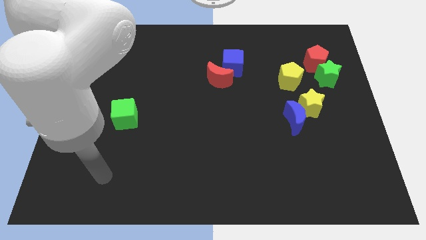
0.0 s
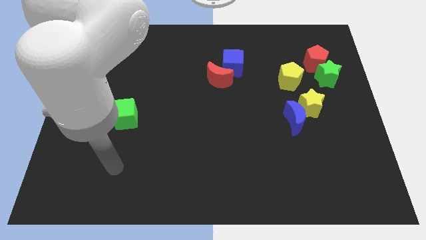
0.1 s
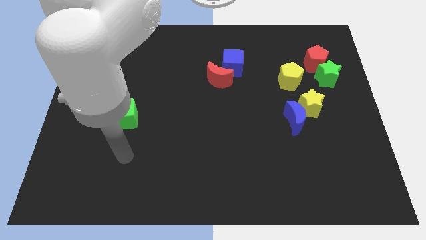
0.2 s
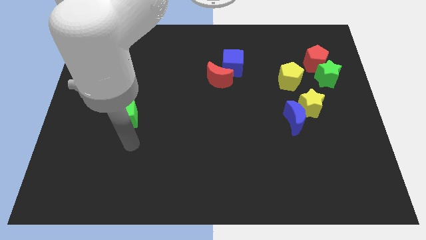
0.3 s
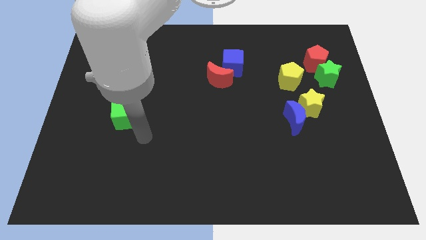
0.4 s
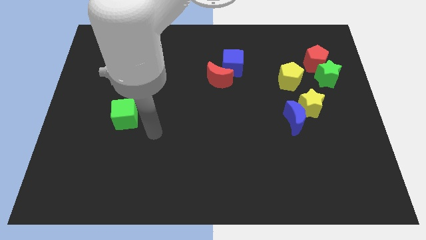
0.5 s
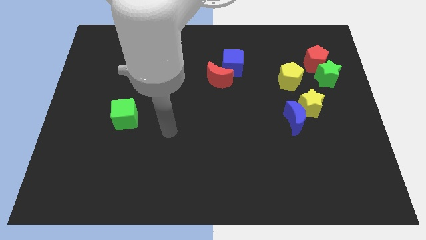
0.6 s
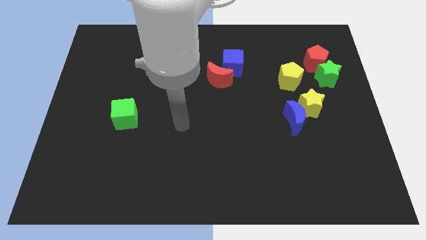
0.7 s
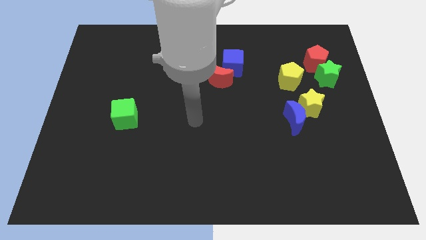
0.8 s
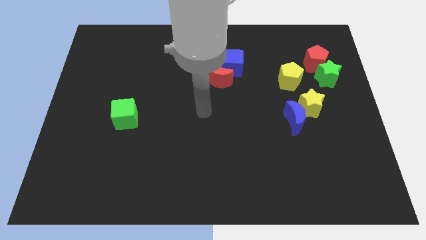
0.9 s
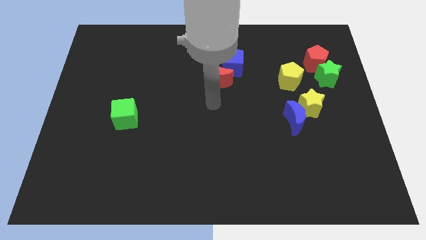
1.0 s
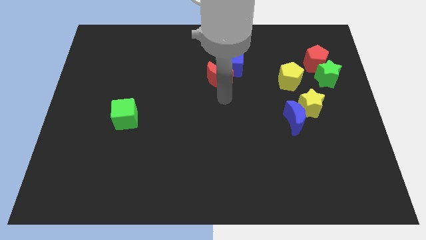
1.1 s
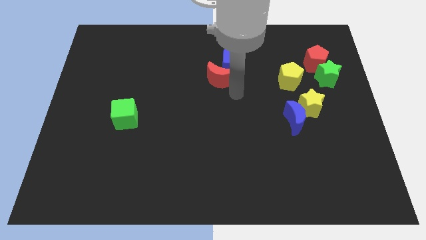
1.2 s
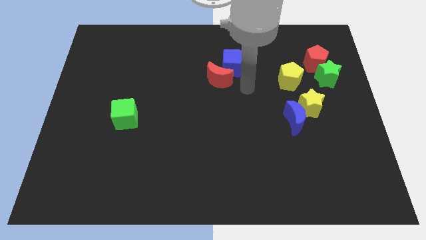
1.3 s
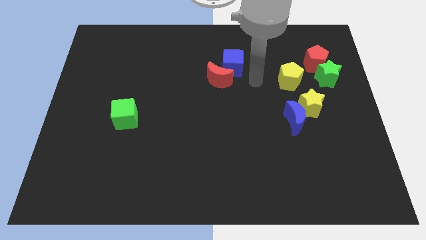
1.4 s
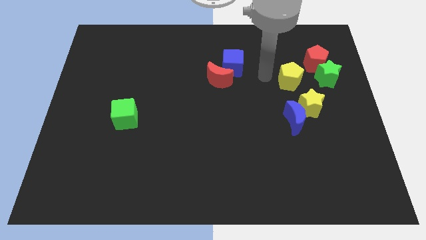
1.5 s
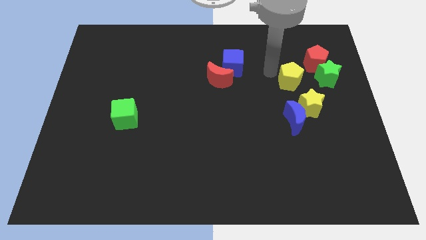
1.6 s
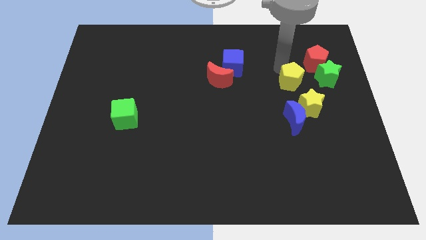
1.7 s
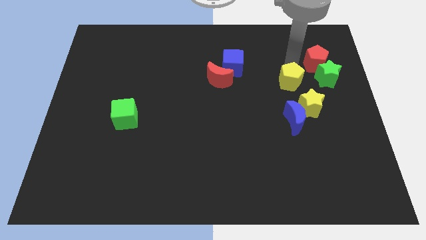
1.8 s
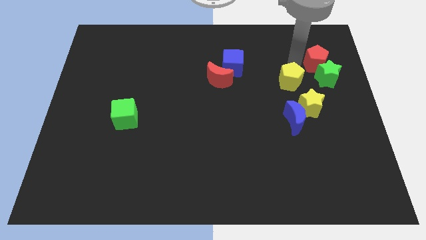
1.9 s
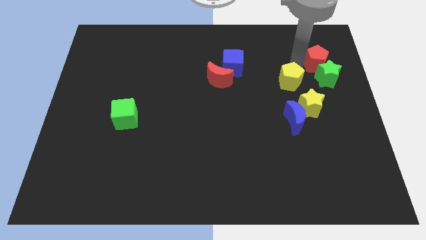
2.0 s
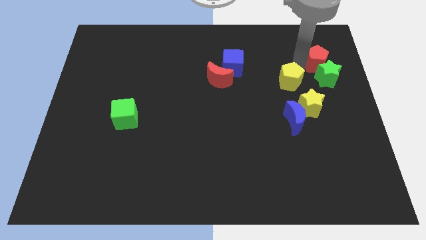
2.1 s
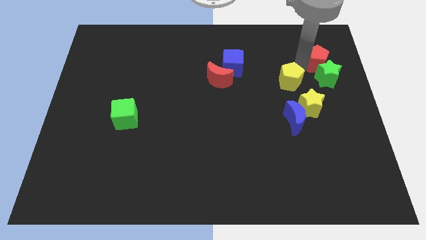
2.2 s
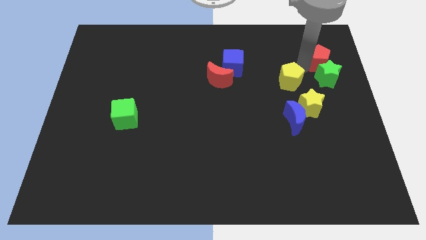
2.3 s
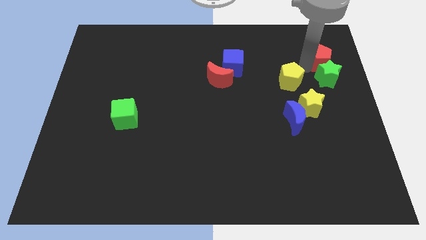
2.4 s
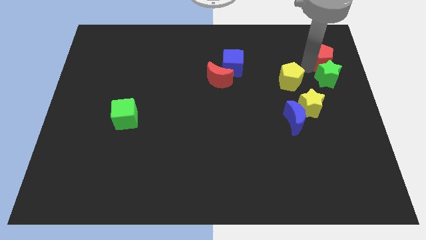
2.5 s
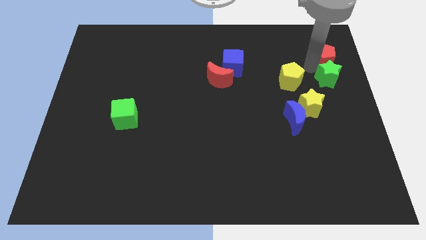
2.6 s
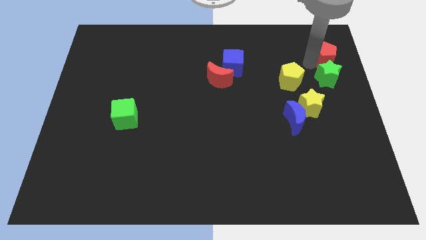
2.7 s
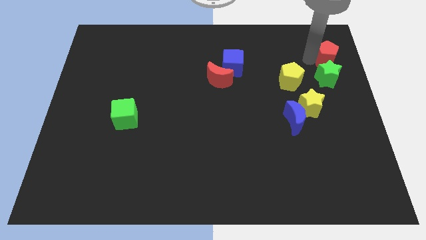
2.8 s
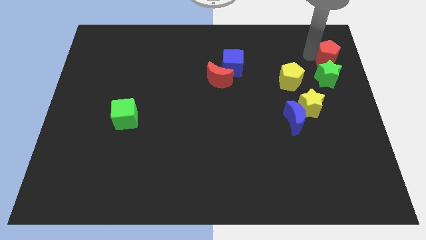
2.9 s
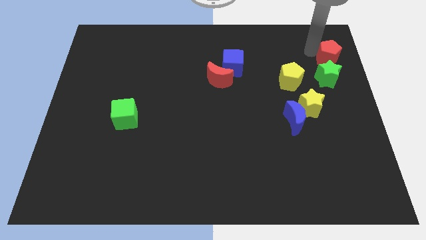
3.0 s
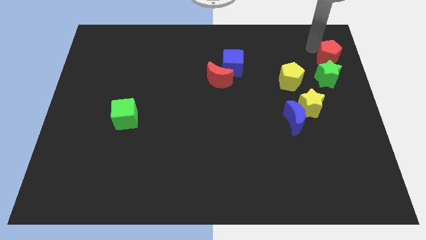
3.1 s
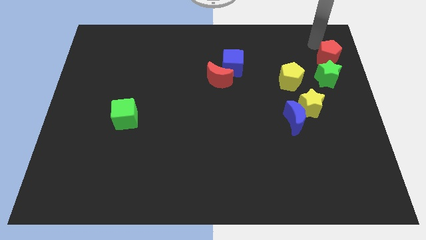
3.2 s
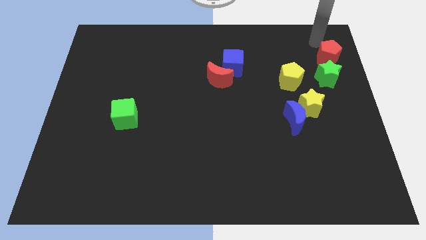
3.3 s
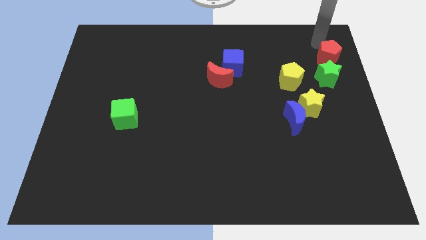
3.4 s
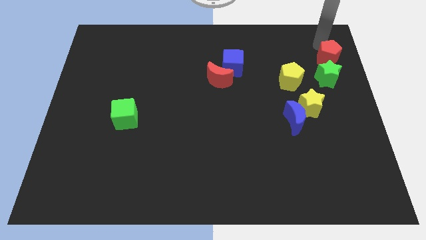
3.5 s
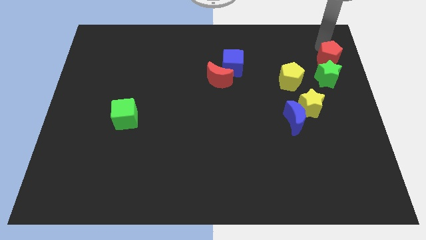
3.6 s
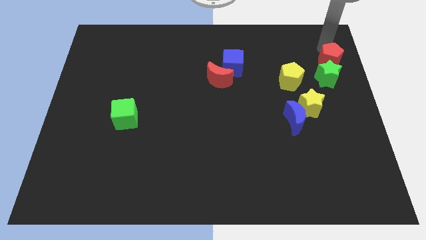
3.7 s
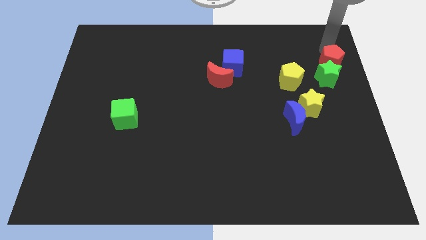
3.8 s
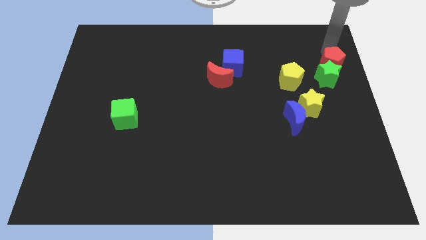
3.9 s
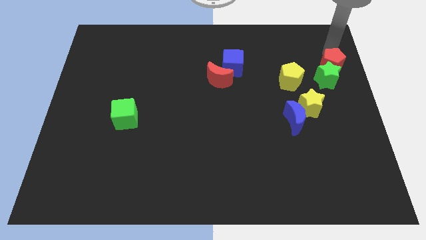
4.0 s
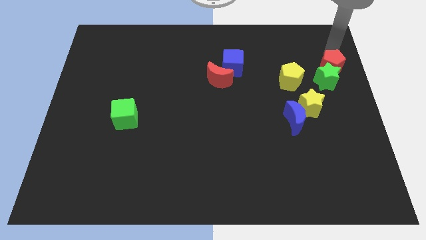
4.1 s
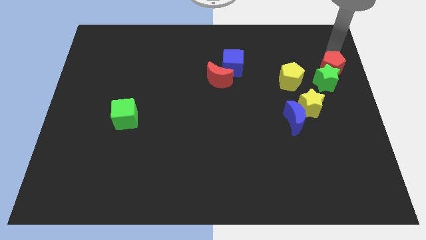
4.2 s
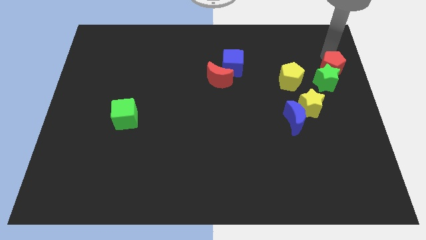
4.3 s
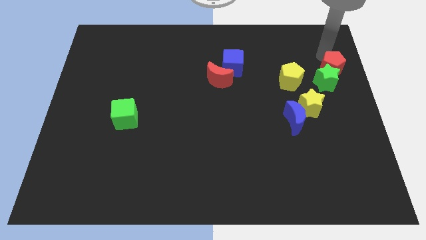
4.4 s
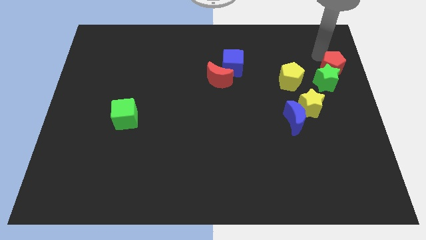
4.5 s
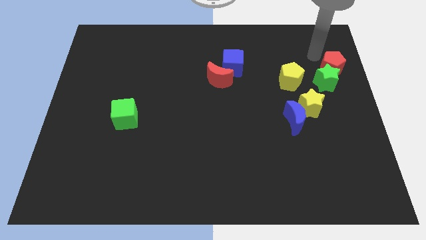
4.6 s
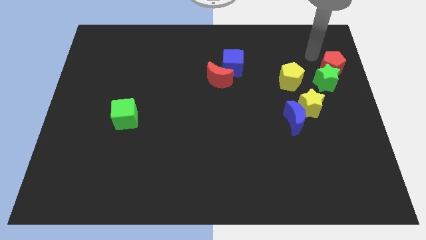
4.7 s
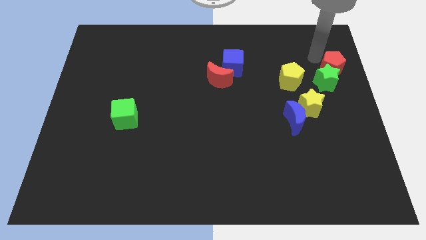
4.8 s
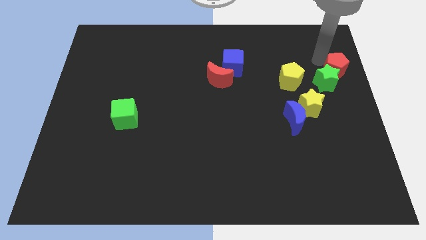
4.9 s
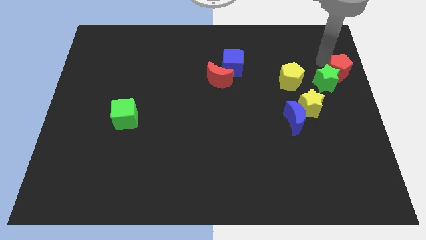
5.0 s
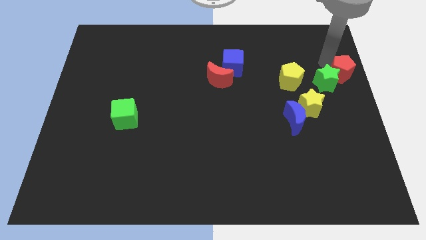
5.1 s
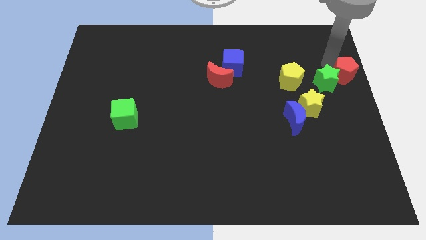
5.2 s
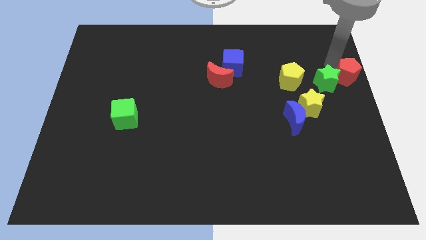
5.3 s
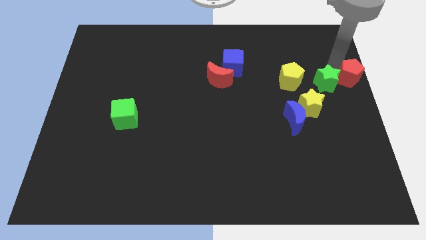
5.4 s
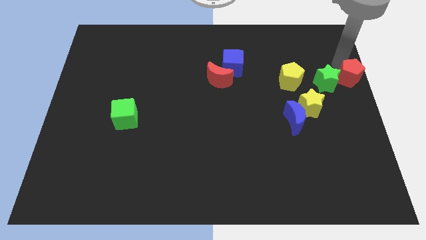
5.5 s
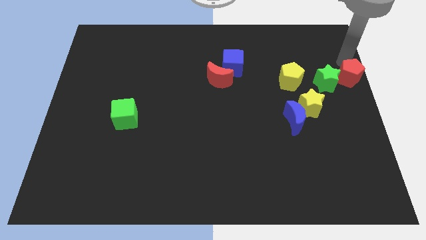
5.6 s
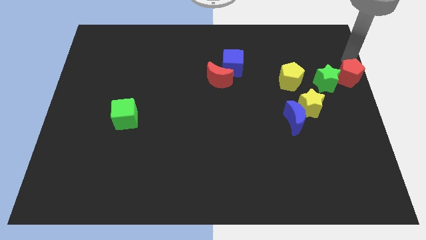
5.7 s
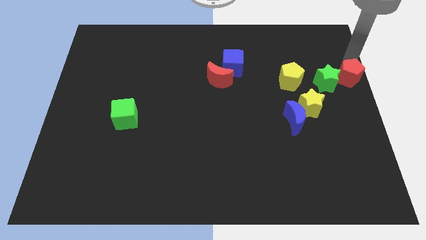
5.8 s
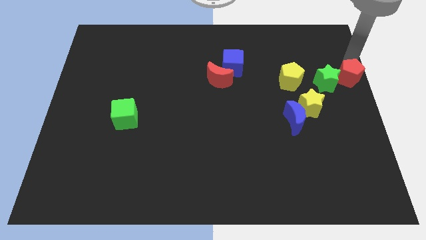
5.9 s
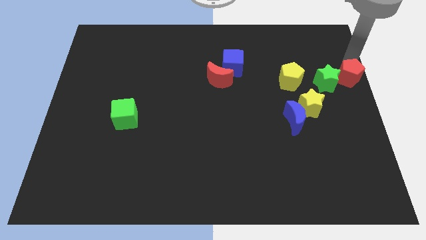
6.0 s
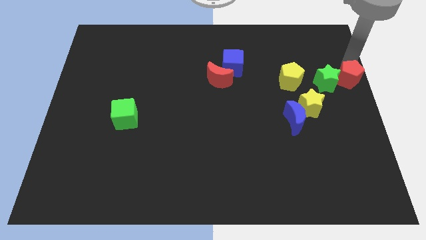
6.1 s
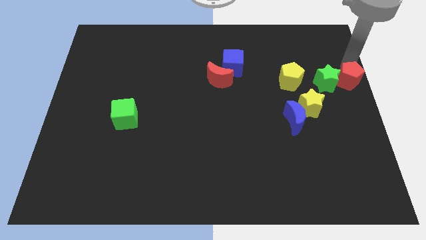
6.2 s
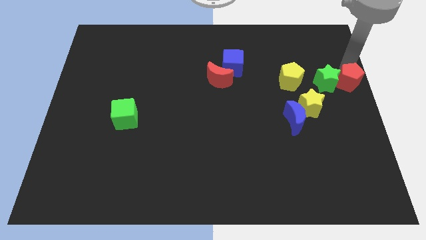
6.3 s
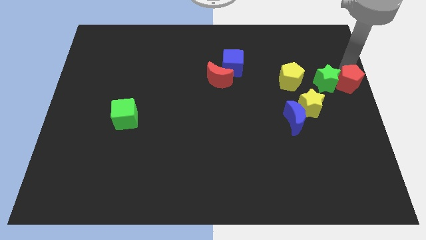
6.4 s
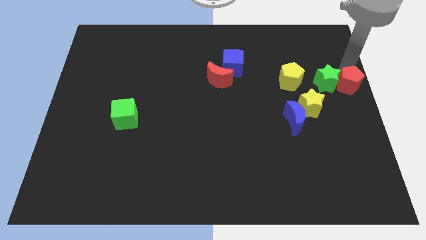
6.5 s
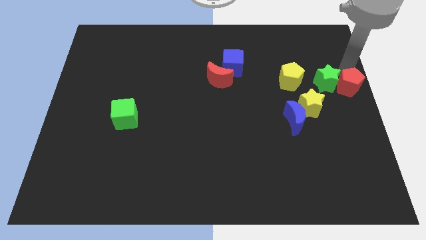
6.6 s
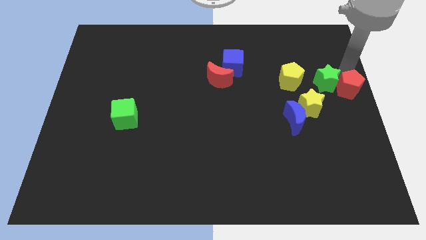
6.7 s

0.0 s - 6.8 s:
slide the red pentagon a little bit downwards

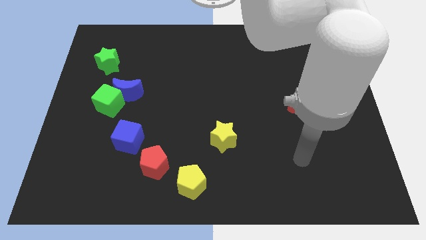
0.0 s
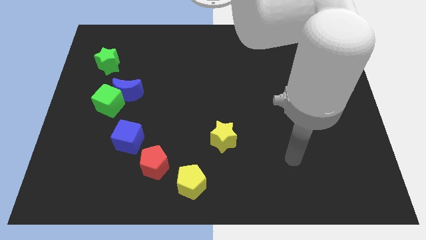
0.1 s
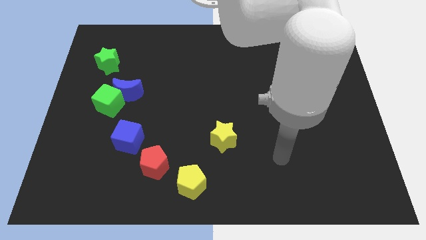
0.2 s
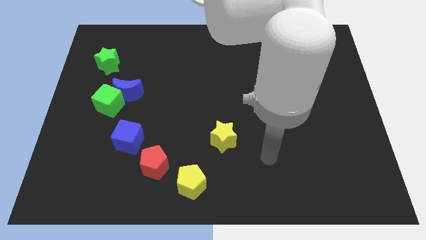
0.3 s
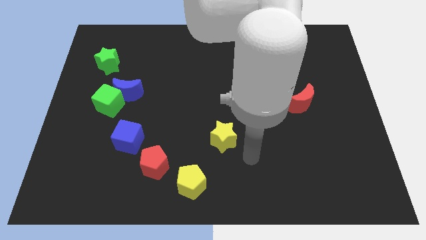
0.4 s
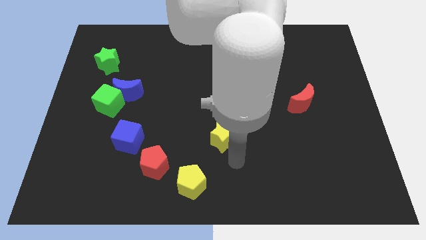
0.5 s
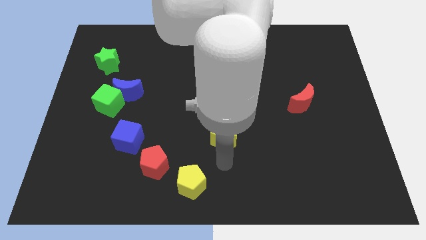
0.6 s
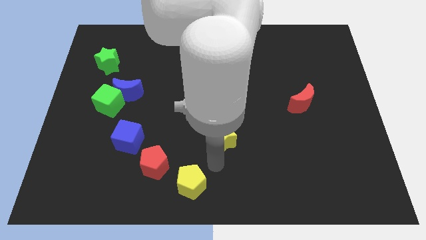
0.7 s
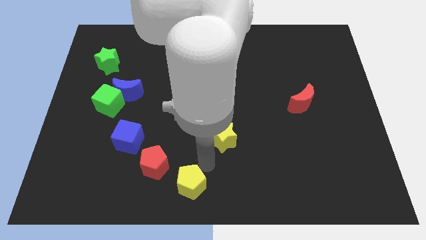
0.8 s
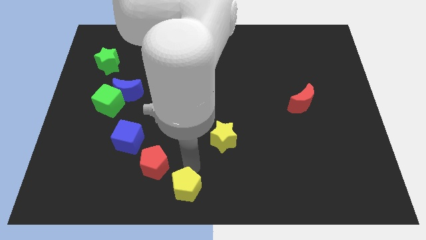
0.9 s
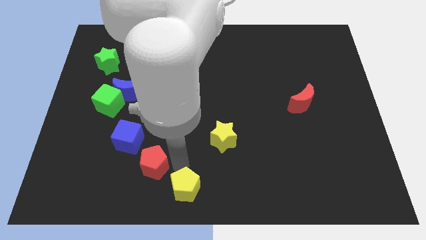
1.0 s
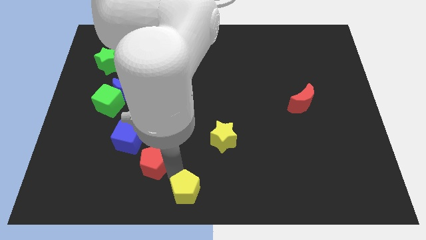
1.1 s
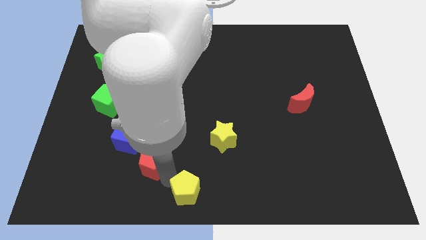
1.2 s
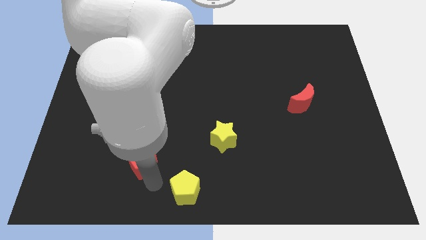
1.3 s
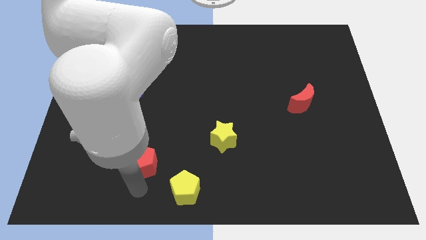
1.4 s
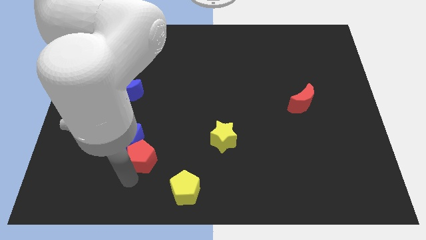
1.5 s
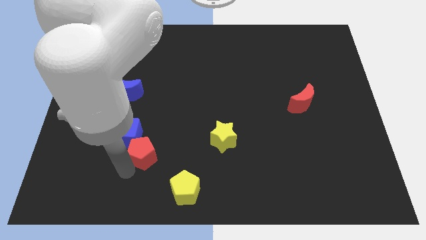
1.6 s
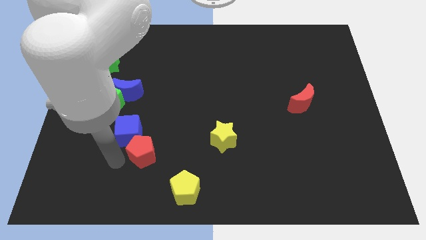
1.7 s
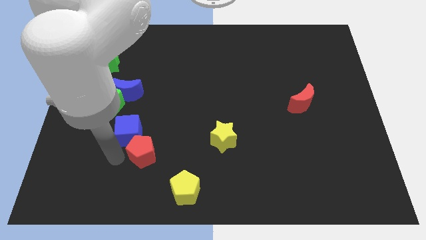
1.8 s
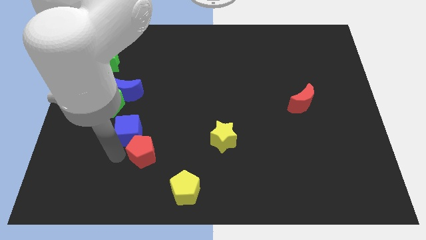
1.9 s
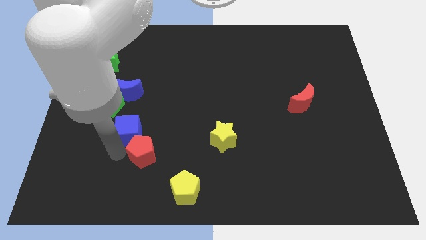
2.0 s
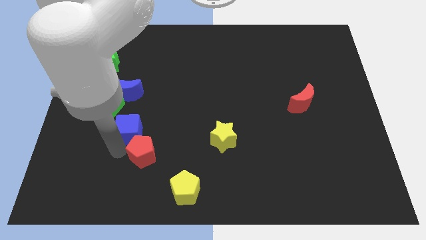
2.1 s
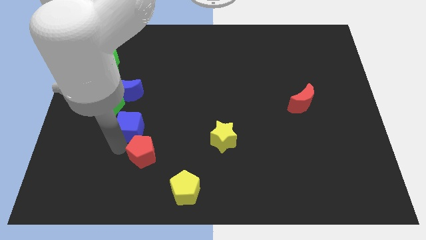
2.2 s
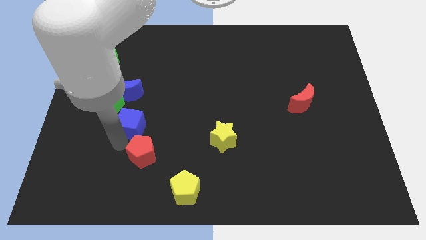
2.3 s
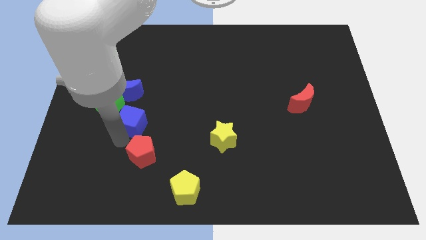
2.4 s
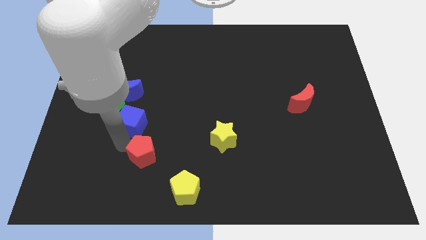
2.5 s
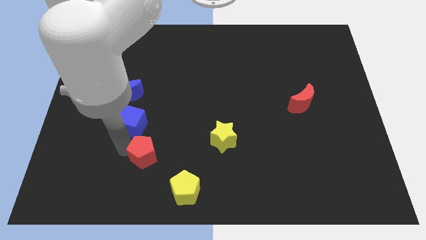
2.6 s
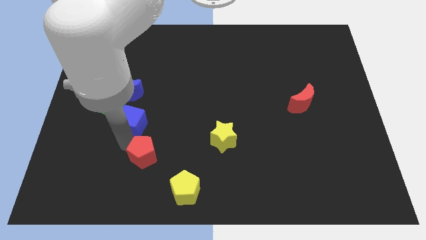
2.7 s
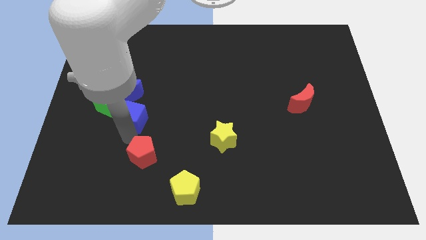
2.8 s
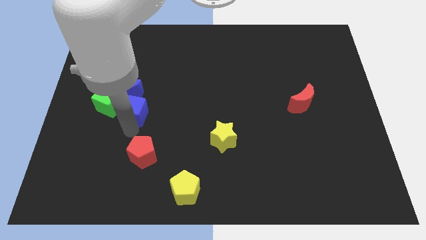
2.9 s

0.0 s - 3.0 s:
move the blue cube somewhat up
